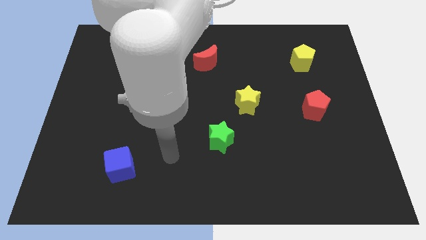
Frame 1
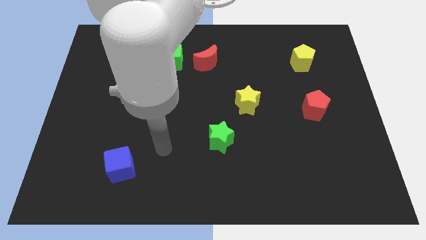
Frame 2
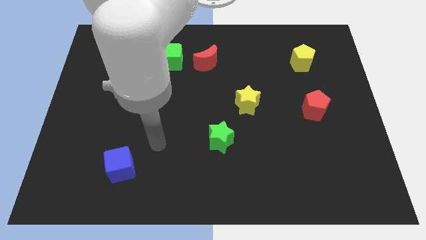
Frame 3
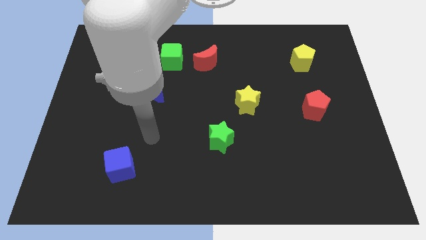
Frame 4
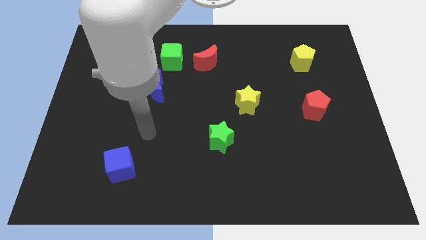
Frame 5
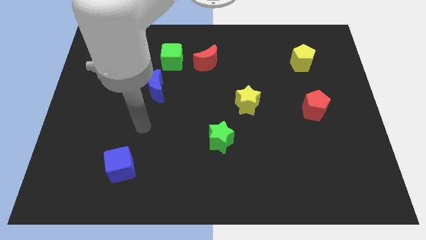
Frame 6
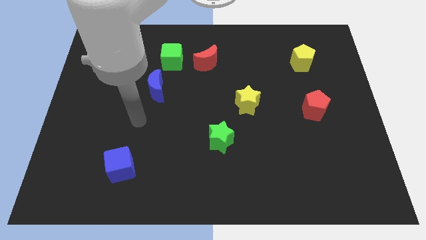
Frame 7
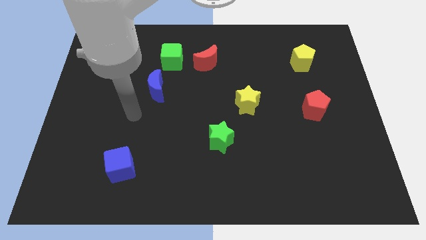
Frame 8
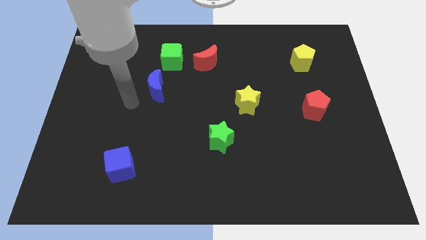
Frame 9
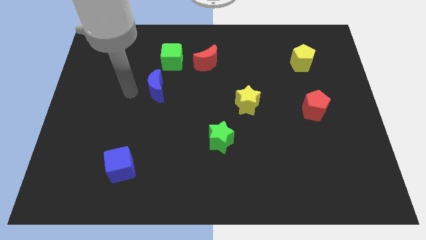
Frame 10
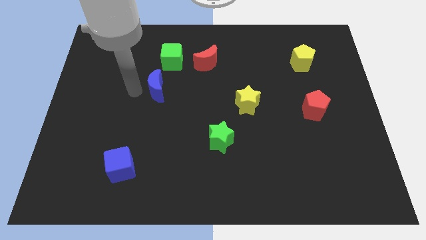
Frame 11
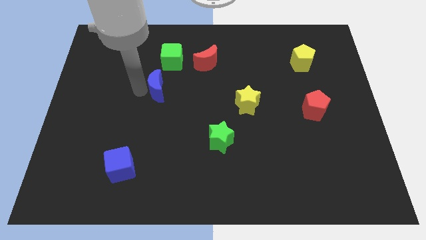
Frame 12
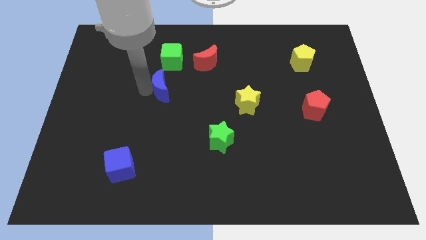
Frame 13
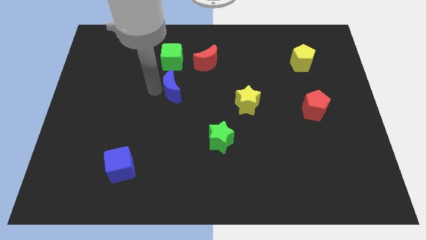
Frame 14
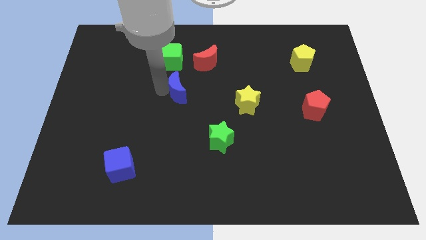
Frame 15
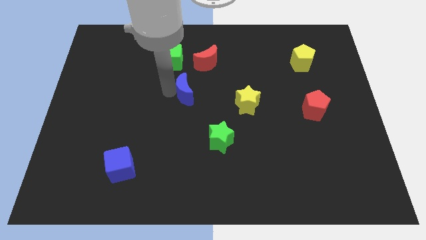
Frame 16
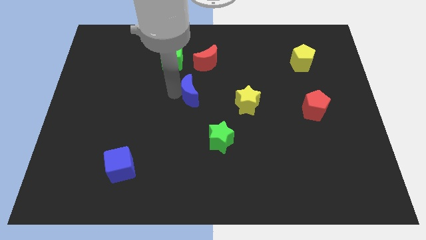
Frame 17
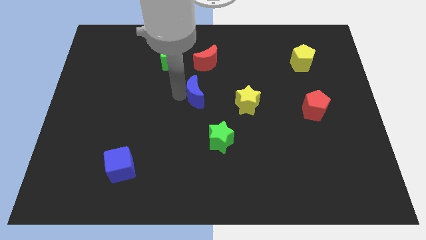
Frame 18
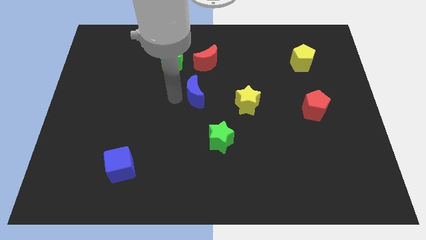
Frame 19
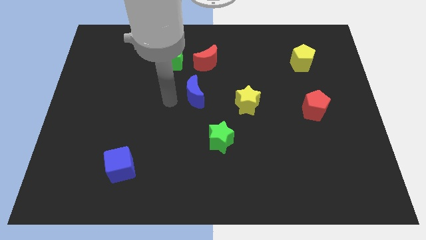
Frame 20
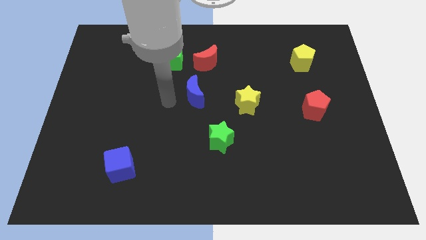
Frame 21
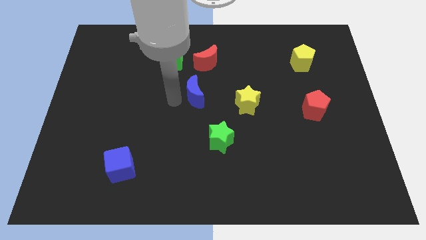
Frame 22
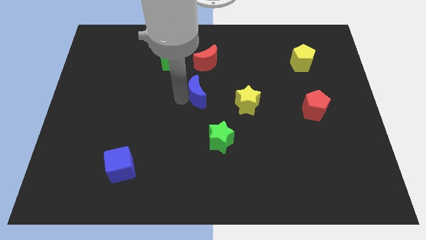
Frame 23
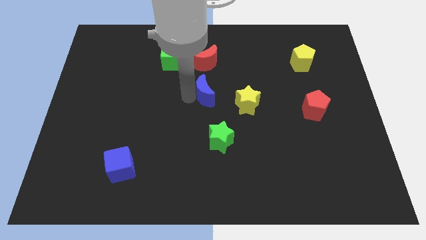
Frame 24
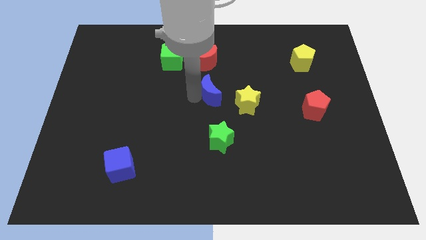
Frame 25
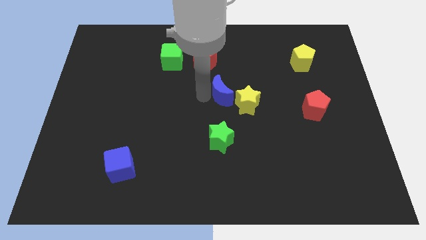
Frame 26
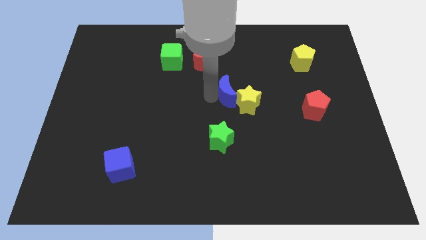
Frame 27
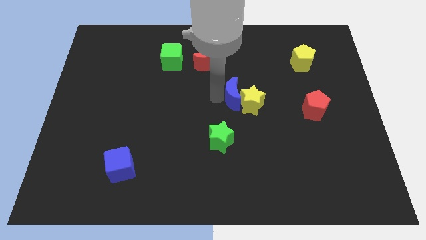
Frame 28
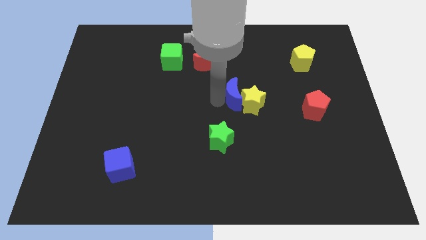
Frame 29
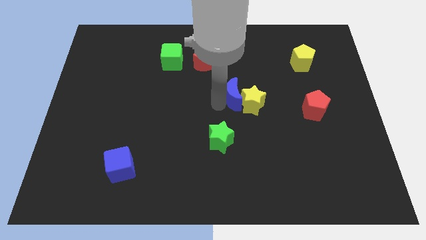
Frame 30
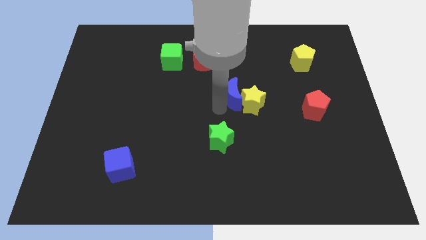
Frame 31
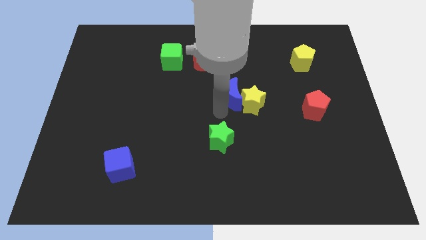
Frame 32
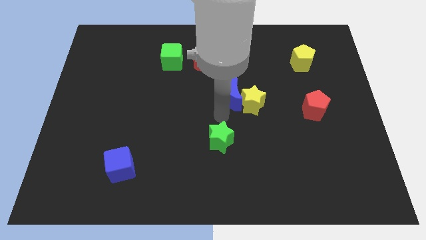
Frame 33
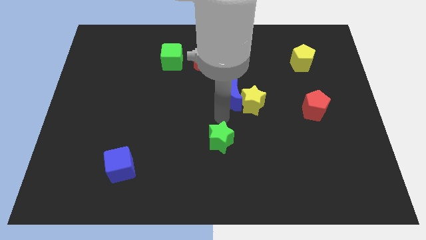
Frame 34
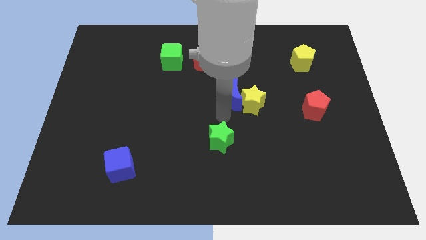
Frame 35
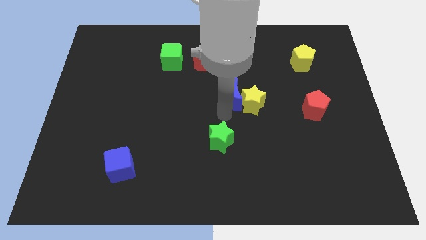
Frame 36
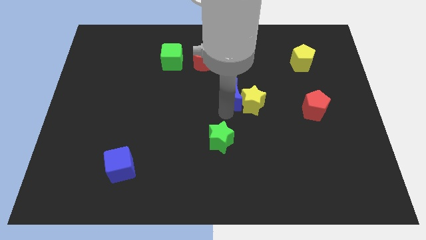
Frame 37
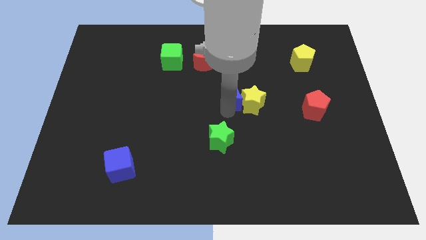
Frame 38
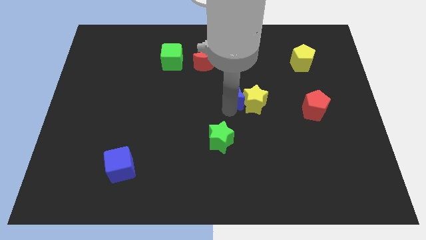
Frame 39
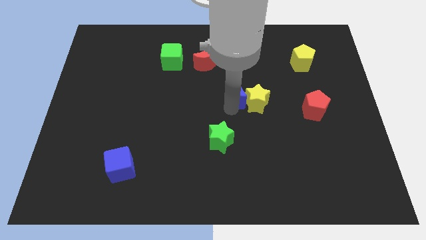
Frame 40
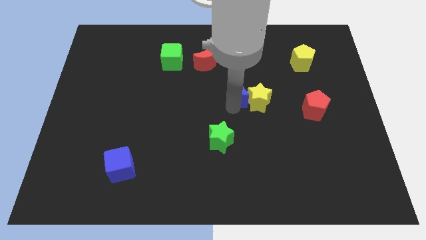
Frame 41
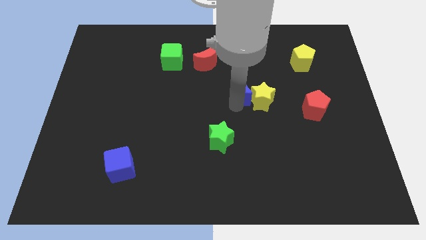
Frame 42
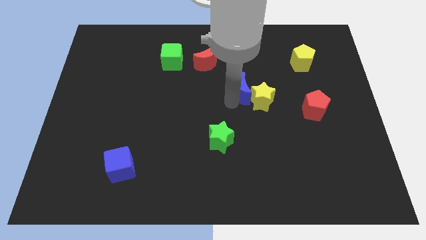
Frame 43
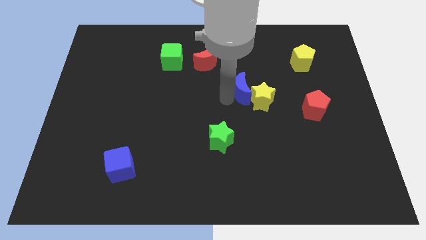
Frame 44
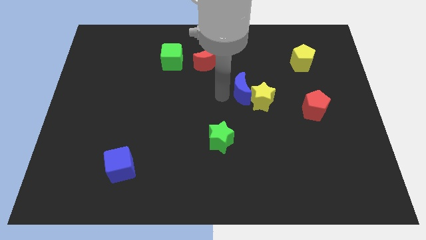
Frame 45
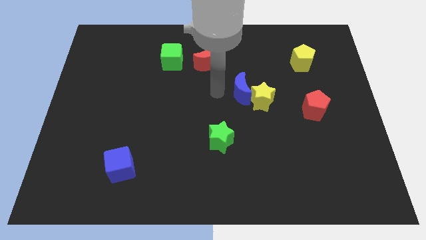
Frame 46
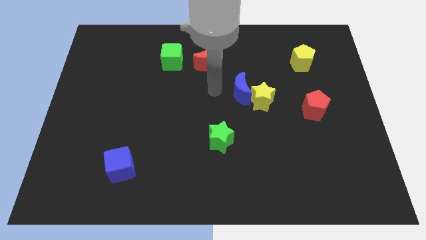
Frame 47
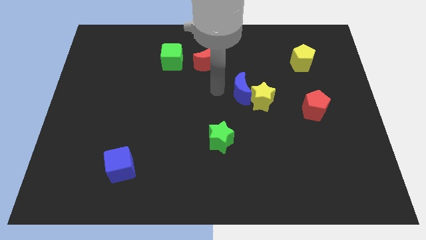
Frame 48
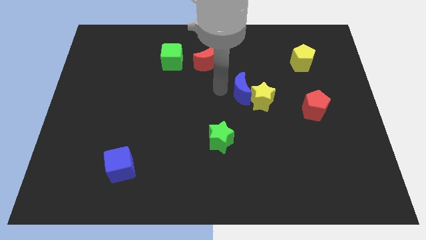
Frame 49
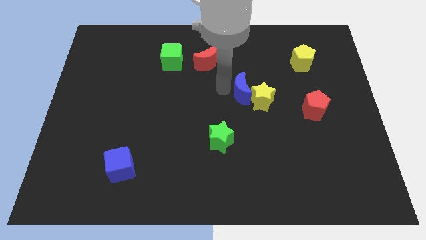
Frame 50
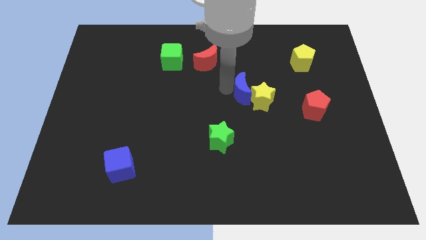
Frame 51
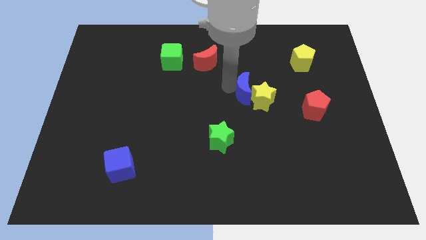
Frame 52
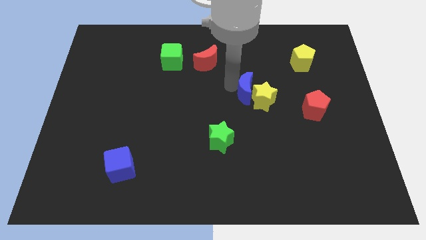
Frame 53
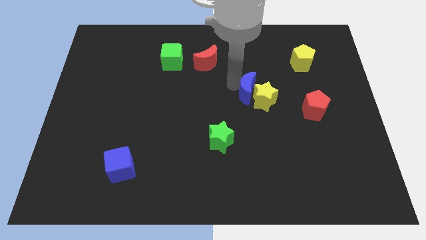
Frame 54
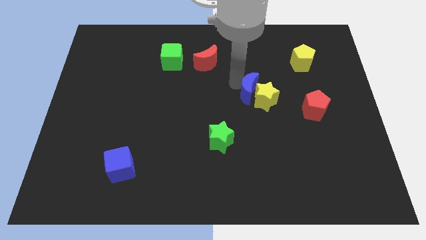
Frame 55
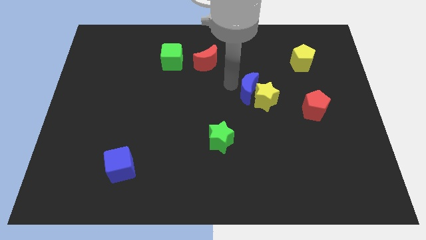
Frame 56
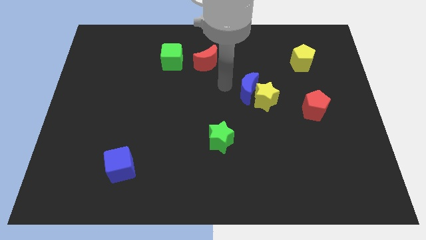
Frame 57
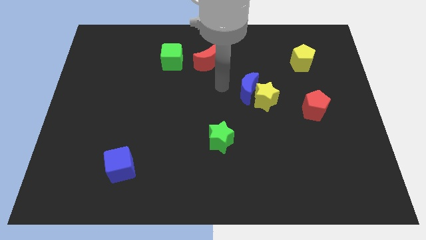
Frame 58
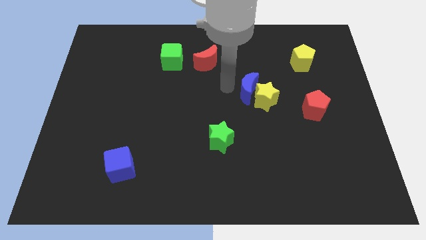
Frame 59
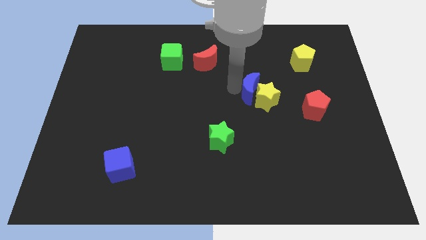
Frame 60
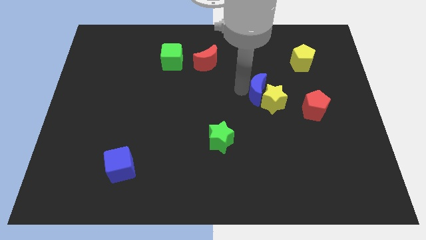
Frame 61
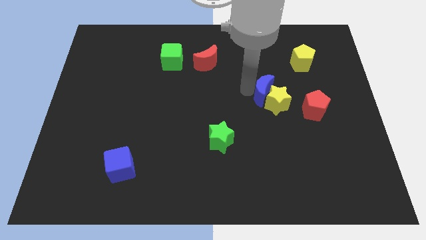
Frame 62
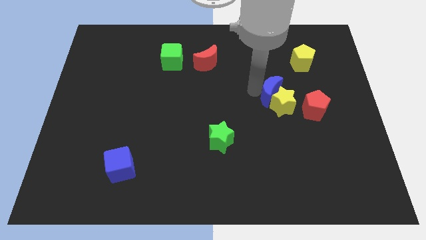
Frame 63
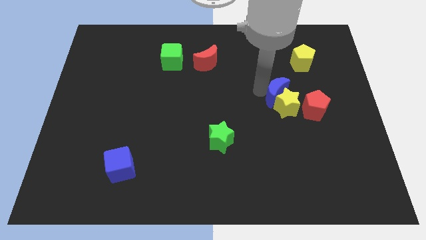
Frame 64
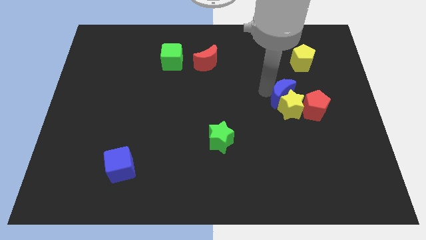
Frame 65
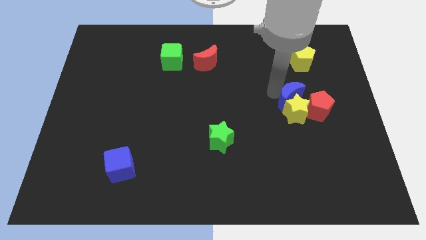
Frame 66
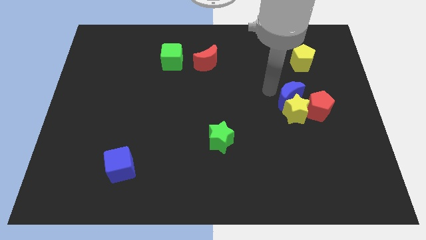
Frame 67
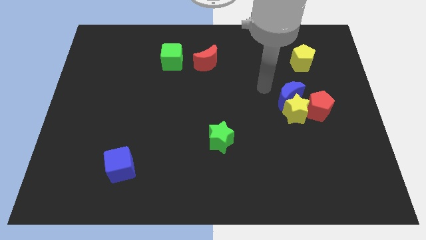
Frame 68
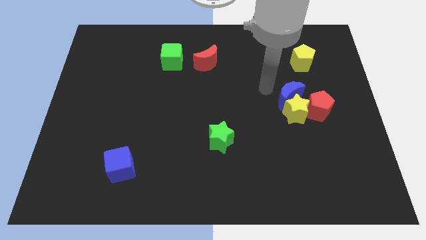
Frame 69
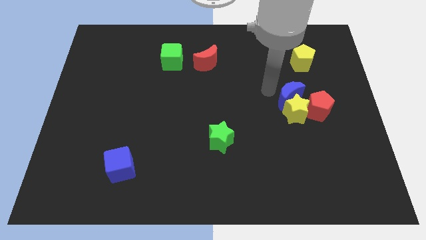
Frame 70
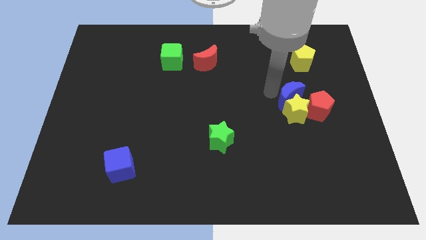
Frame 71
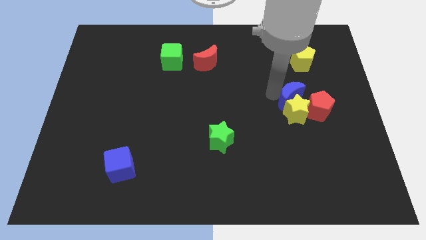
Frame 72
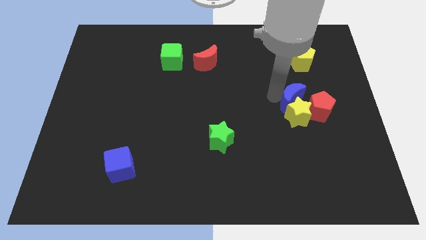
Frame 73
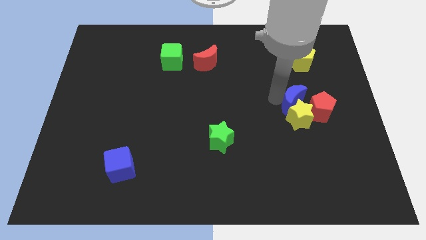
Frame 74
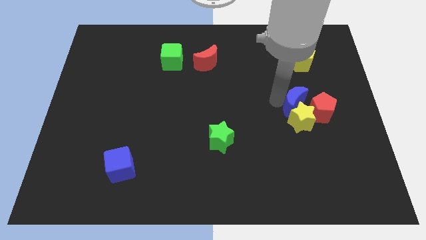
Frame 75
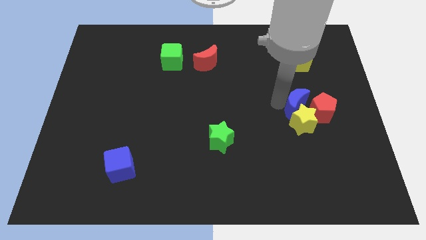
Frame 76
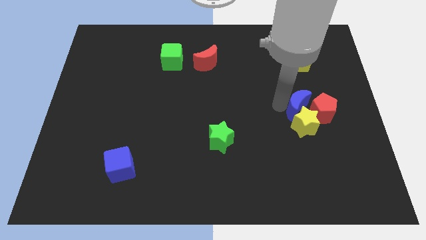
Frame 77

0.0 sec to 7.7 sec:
move the blue moon close to the red pentagon
